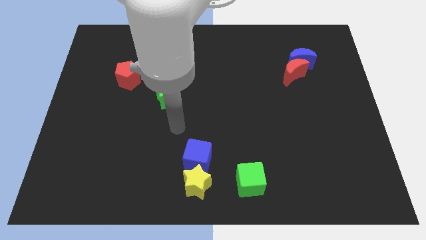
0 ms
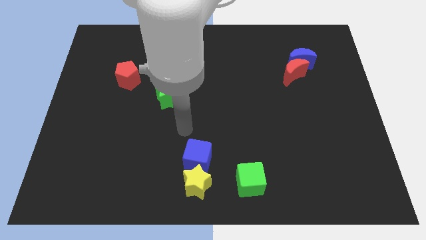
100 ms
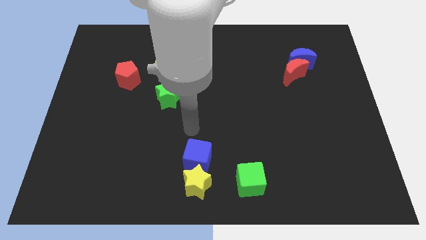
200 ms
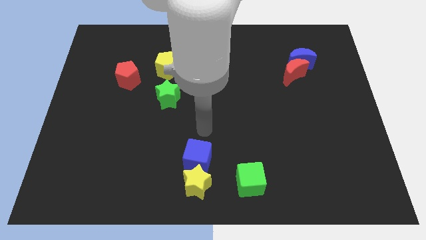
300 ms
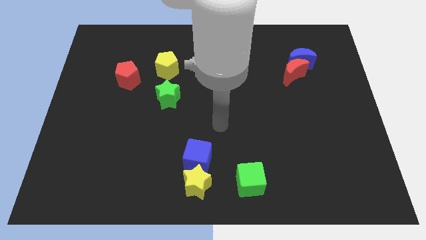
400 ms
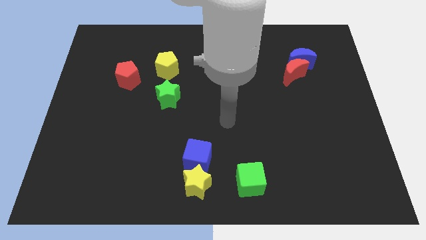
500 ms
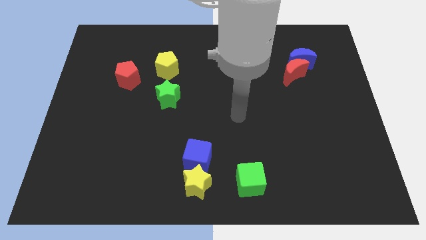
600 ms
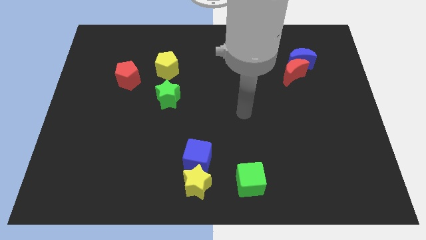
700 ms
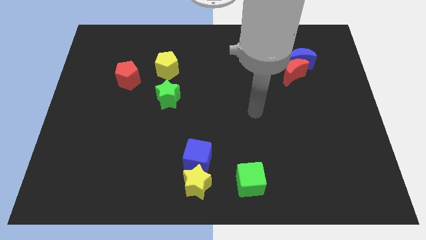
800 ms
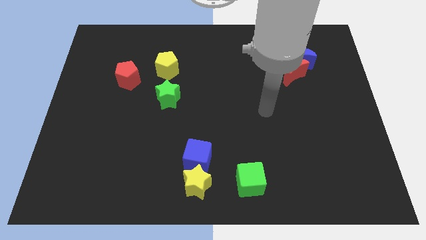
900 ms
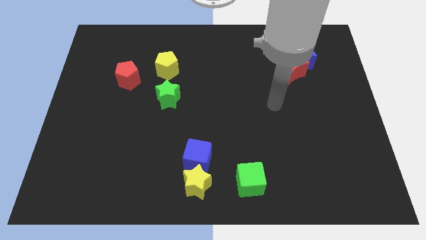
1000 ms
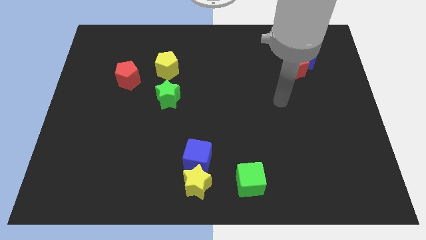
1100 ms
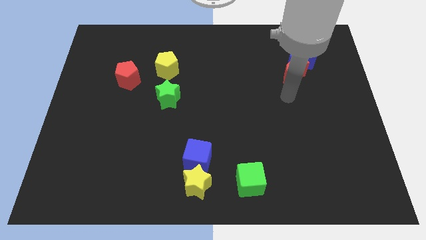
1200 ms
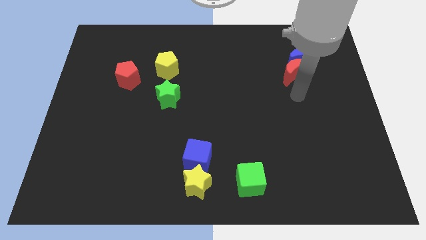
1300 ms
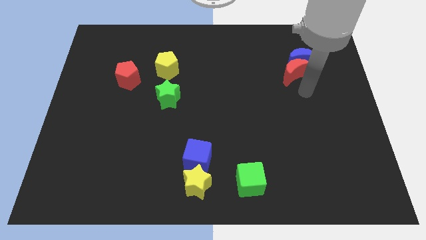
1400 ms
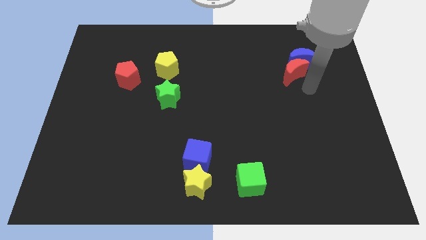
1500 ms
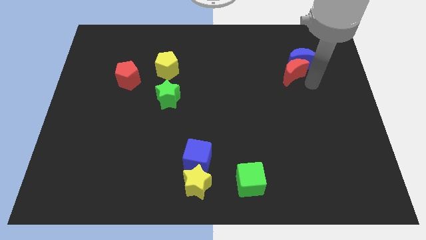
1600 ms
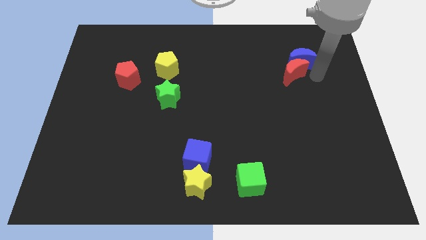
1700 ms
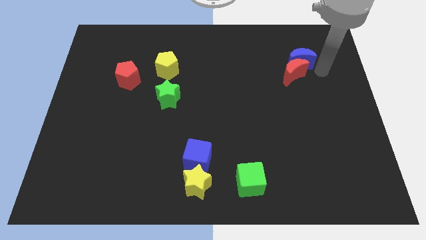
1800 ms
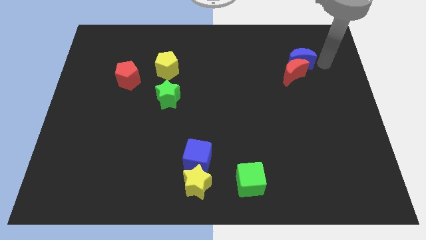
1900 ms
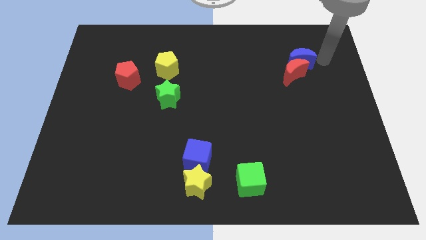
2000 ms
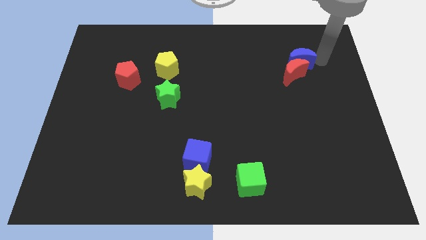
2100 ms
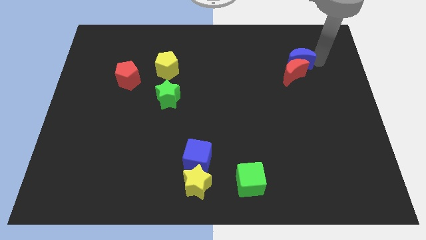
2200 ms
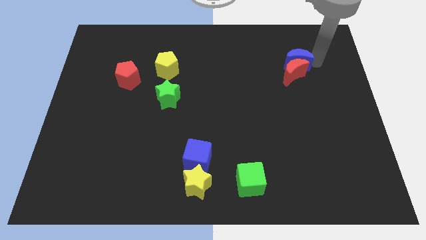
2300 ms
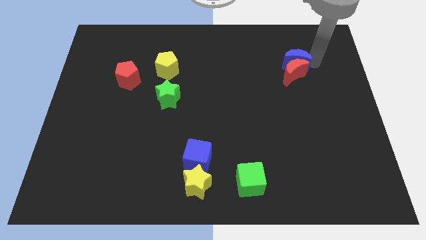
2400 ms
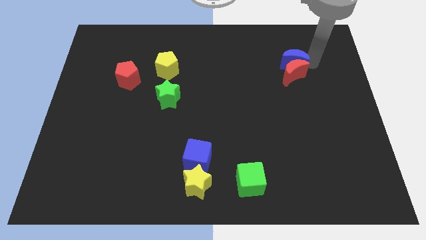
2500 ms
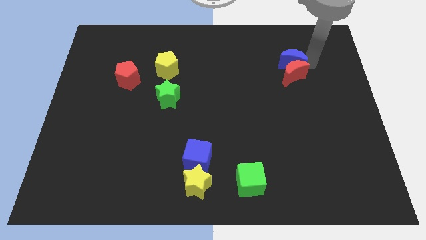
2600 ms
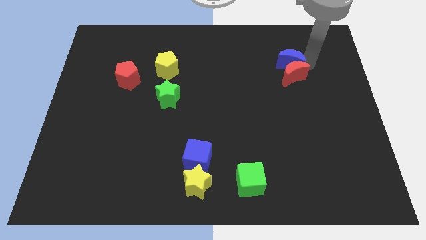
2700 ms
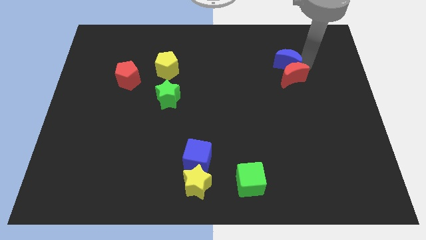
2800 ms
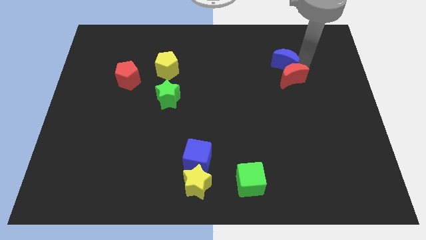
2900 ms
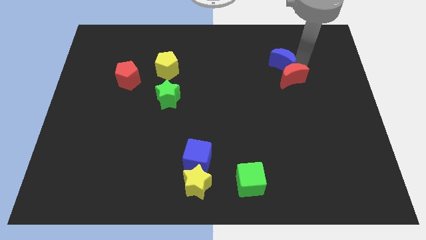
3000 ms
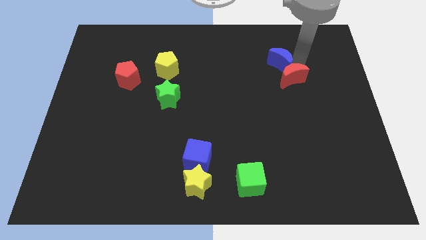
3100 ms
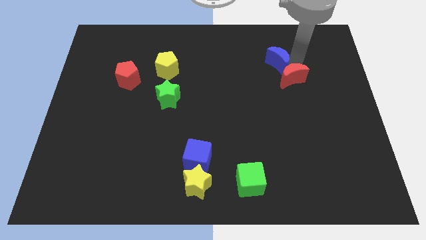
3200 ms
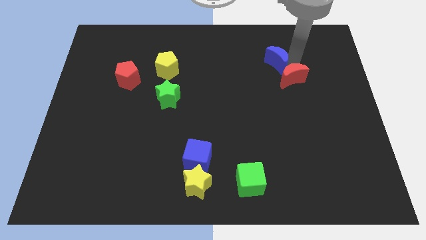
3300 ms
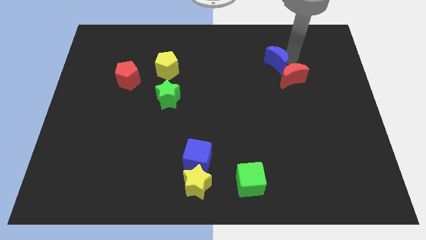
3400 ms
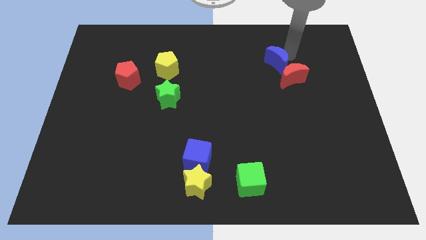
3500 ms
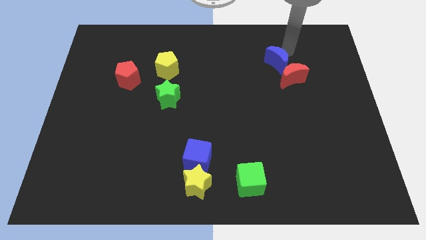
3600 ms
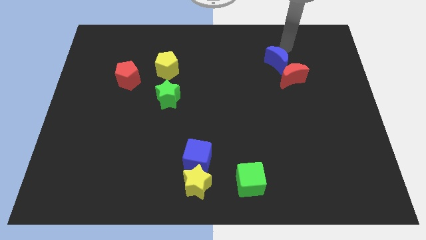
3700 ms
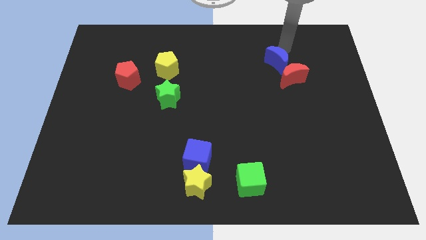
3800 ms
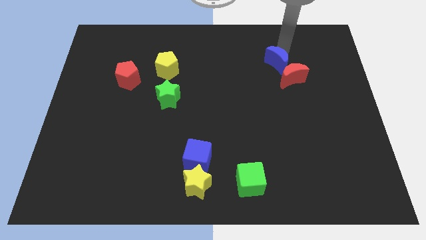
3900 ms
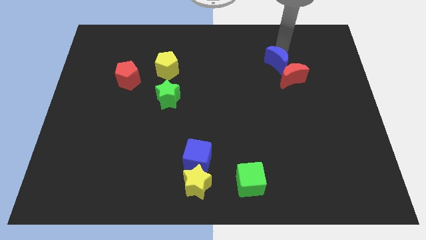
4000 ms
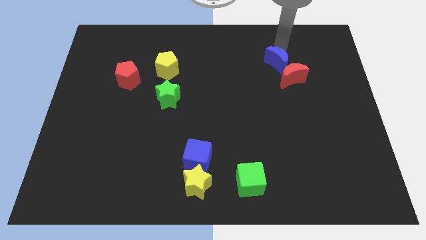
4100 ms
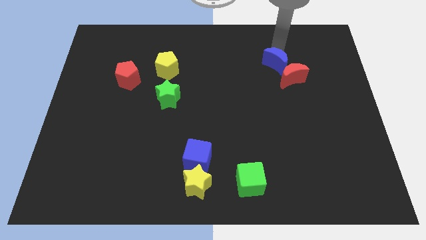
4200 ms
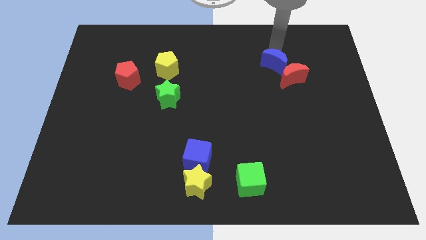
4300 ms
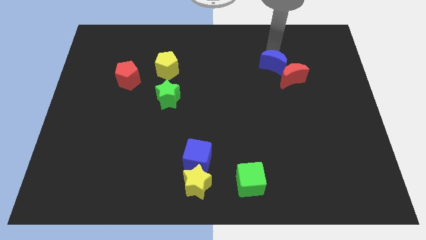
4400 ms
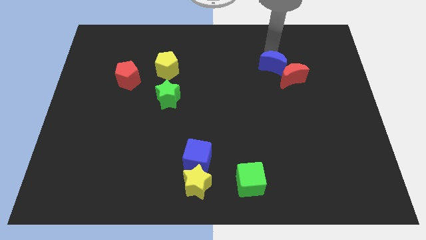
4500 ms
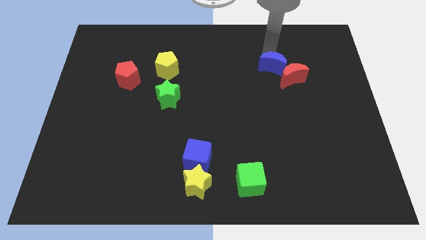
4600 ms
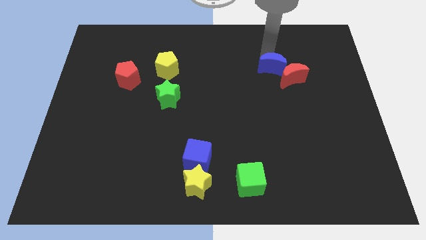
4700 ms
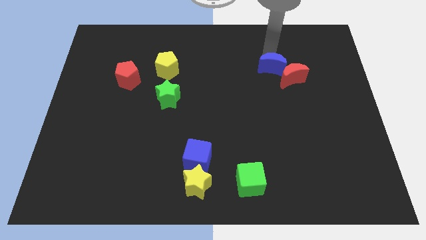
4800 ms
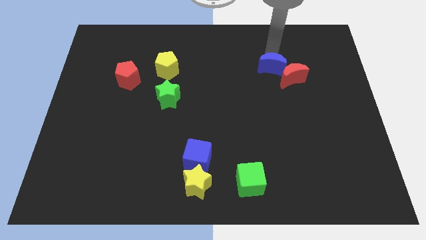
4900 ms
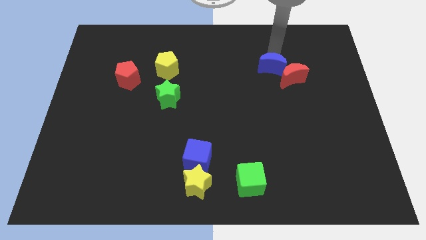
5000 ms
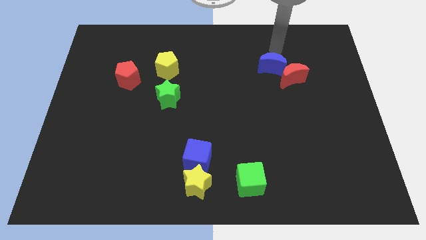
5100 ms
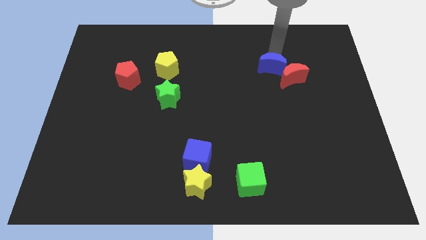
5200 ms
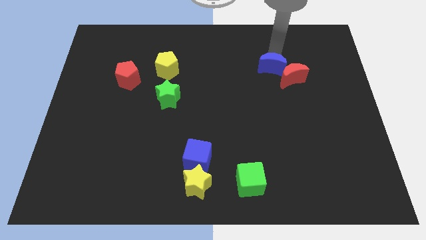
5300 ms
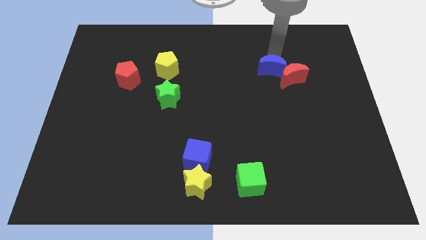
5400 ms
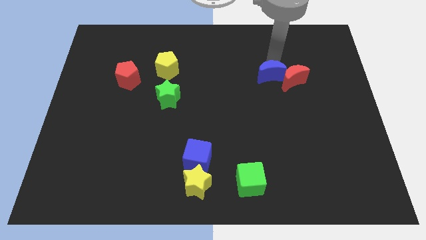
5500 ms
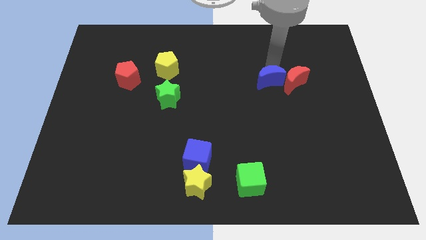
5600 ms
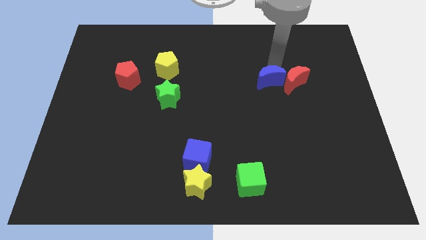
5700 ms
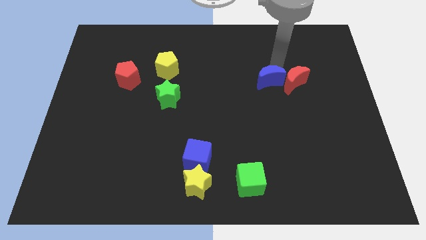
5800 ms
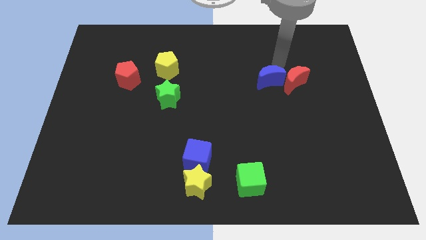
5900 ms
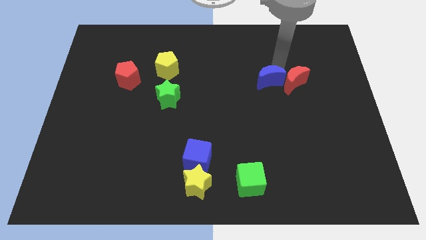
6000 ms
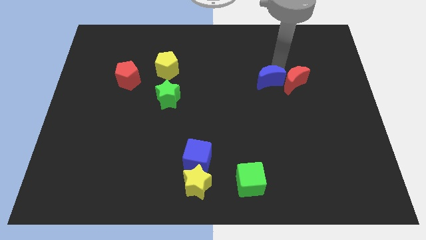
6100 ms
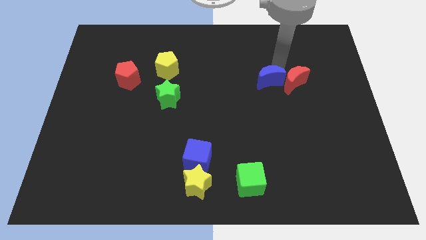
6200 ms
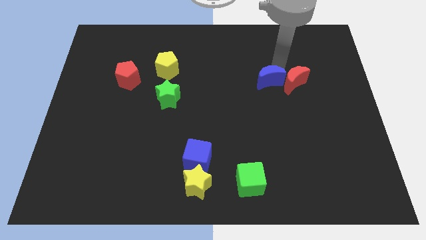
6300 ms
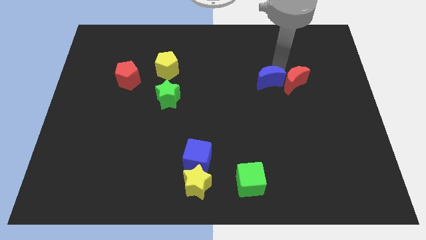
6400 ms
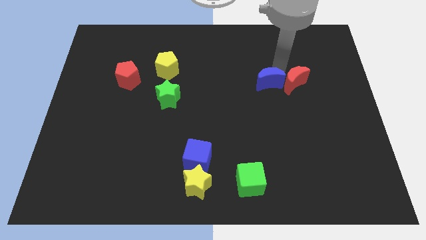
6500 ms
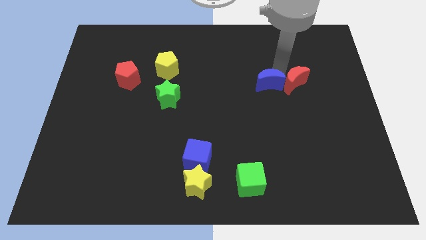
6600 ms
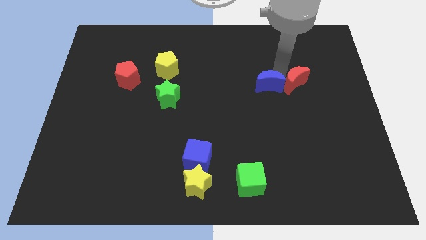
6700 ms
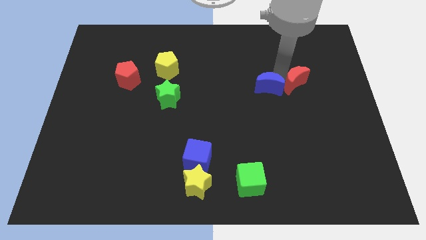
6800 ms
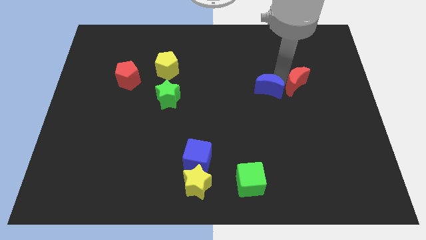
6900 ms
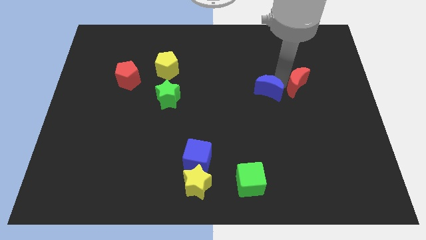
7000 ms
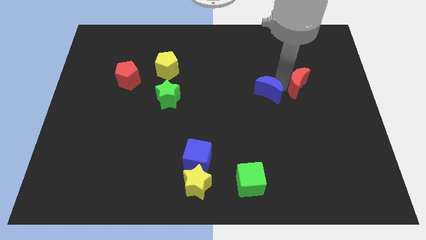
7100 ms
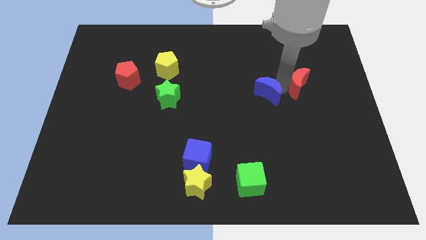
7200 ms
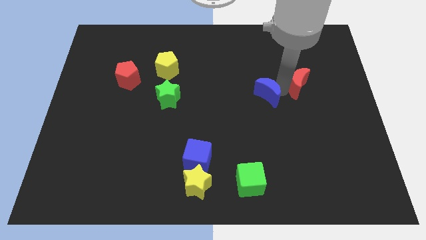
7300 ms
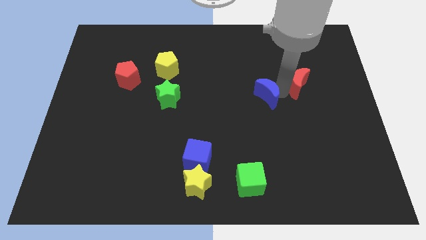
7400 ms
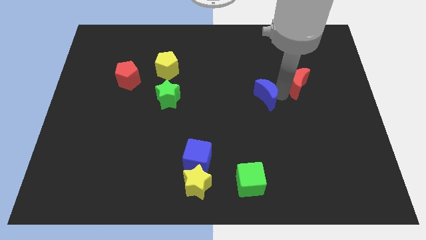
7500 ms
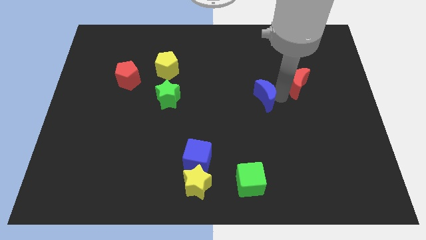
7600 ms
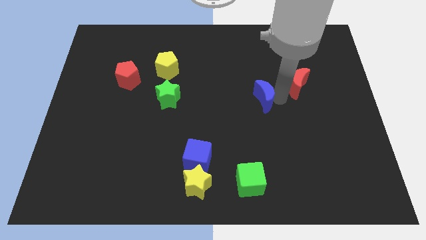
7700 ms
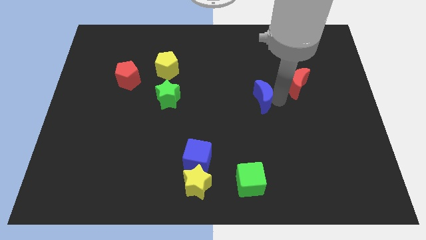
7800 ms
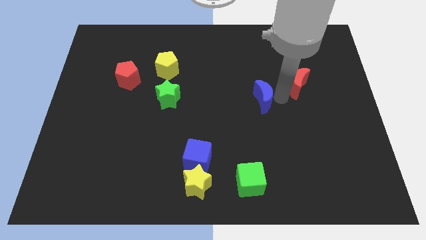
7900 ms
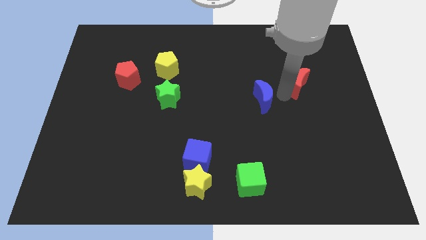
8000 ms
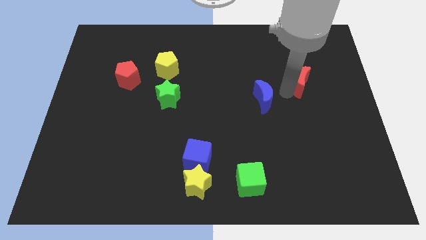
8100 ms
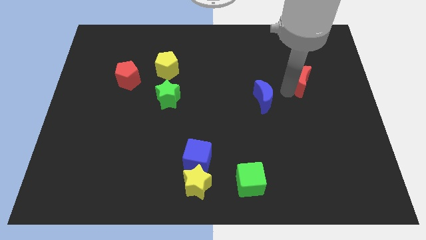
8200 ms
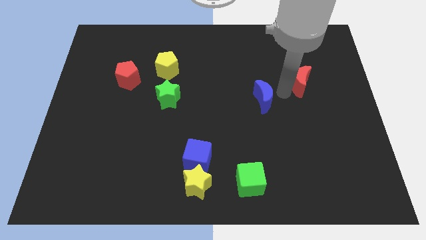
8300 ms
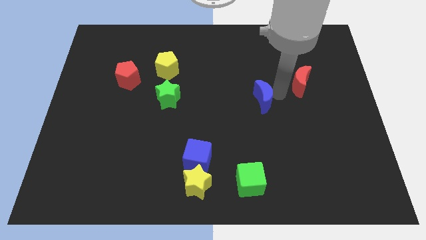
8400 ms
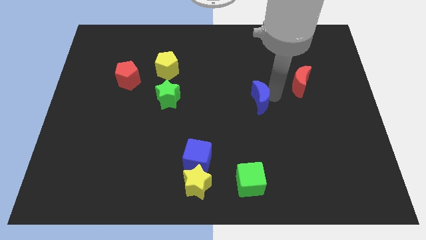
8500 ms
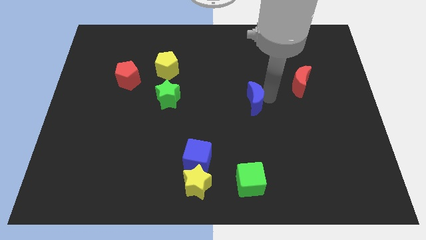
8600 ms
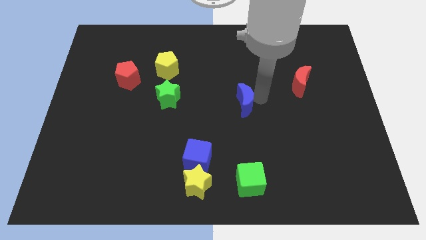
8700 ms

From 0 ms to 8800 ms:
slide the blue moon downwards and to the left
